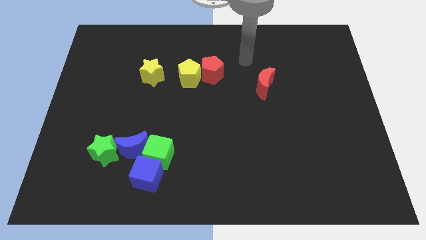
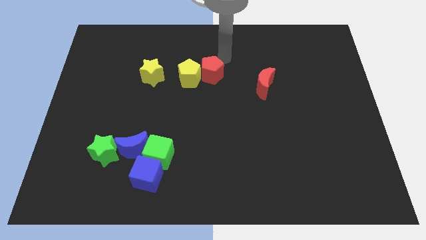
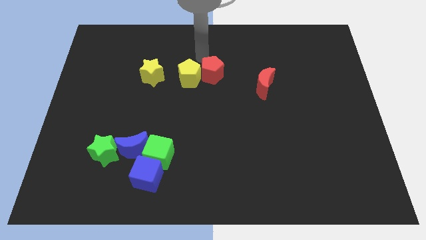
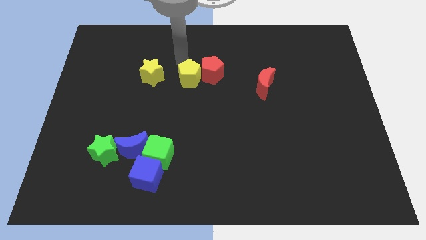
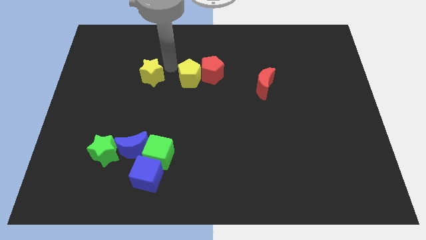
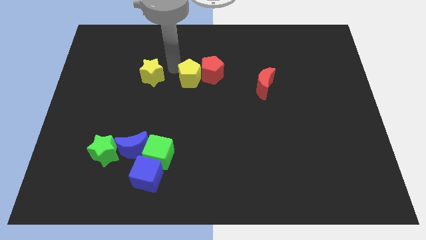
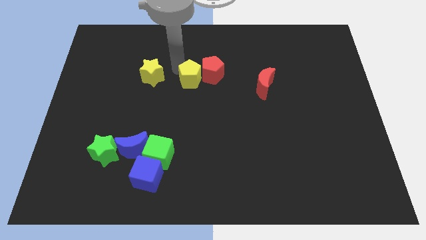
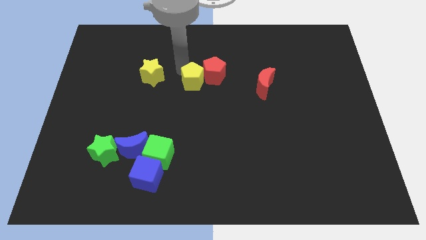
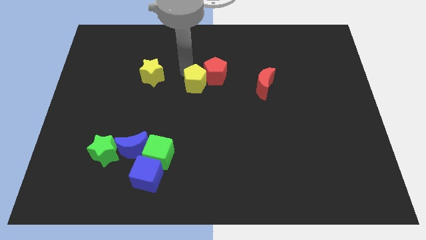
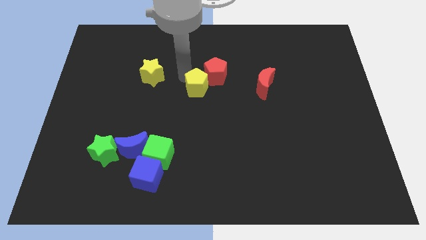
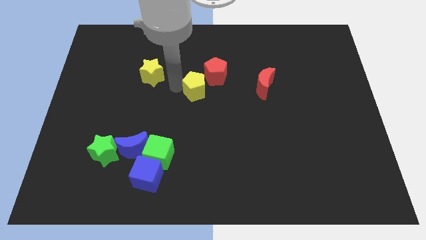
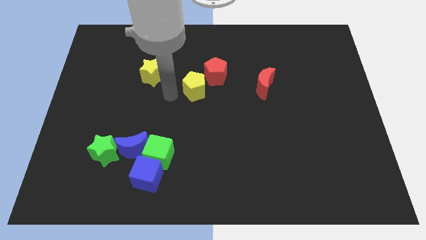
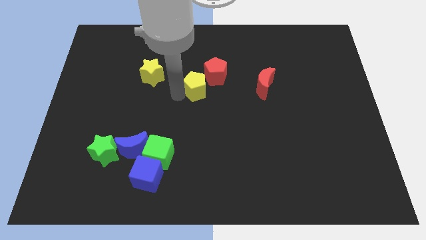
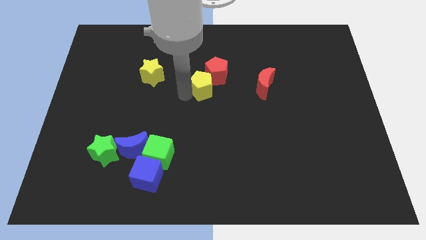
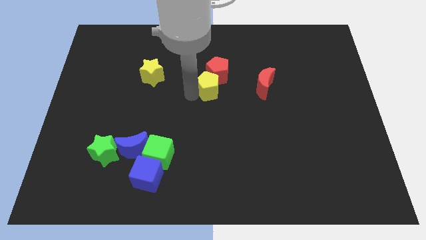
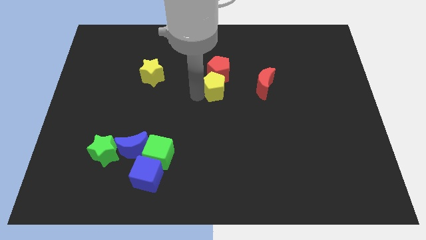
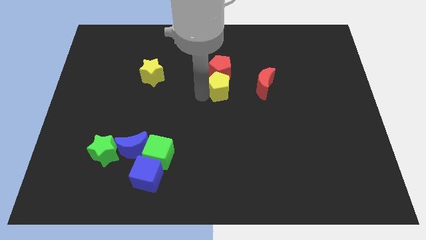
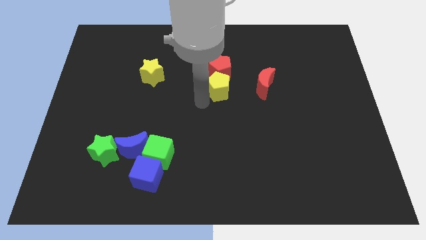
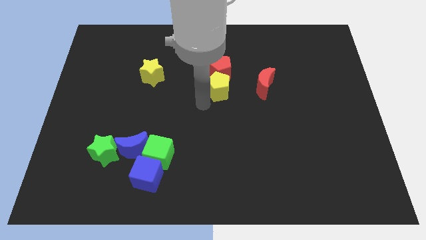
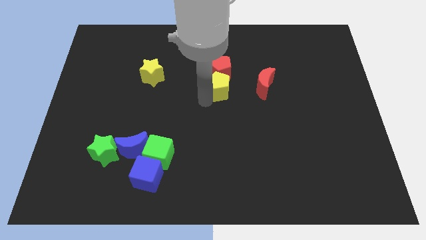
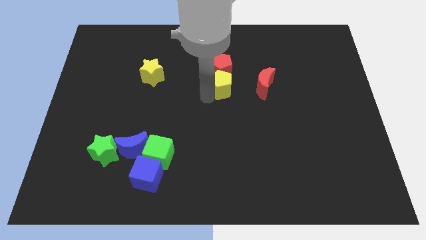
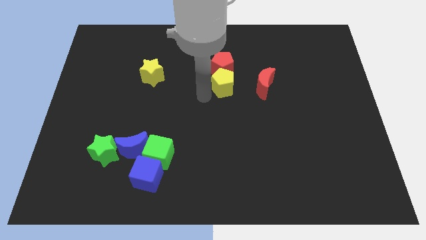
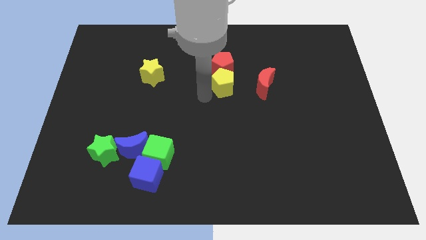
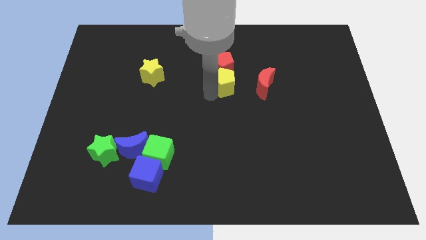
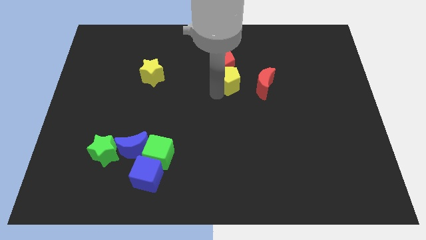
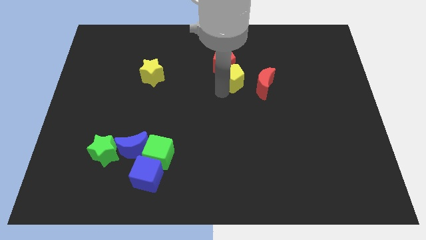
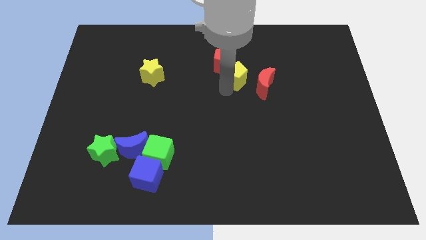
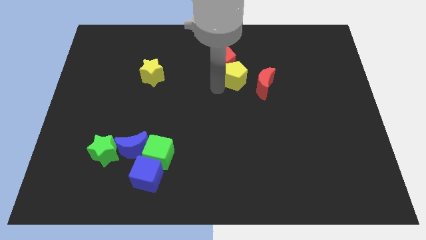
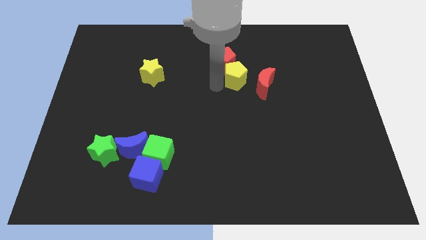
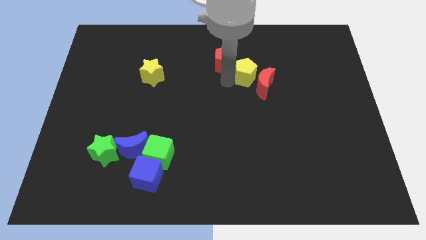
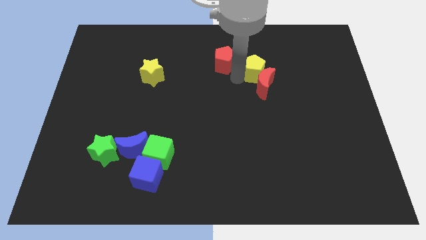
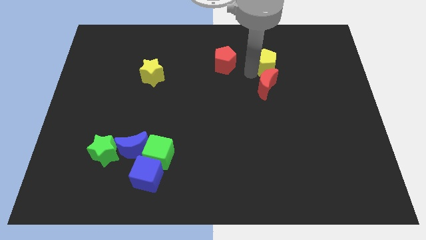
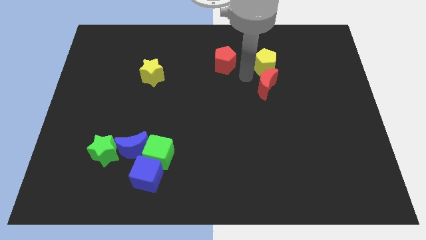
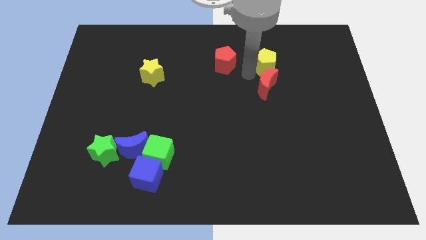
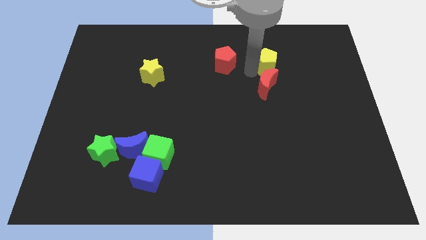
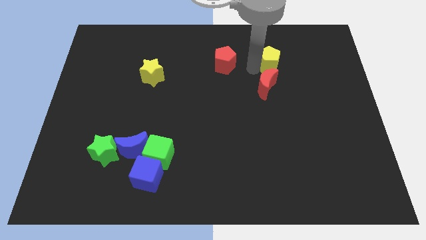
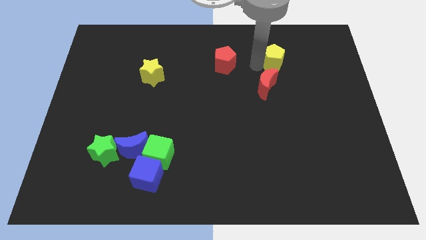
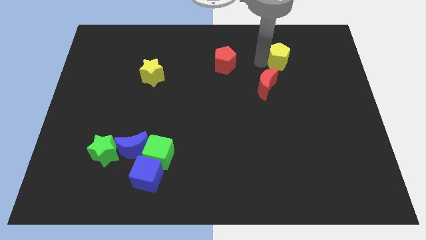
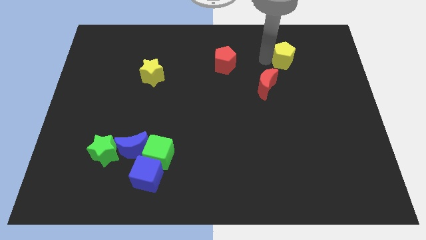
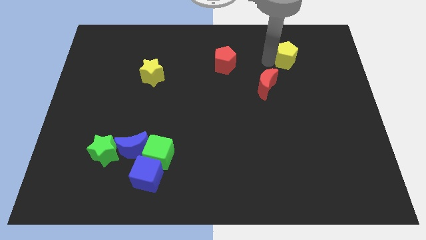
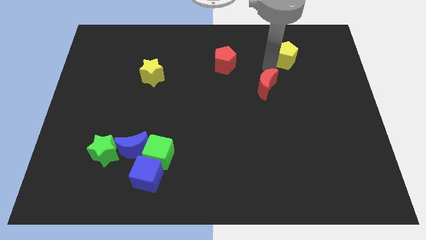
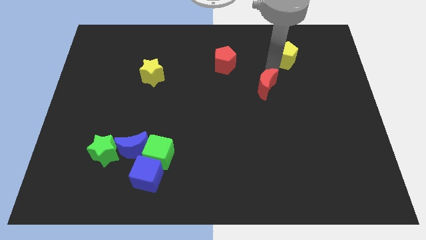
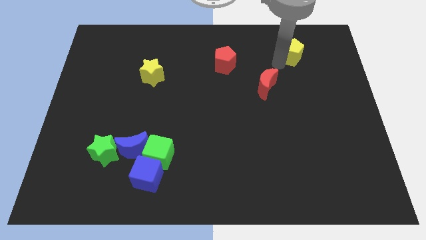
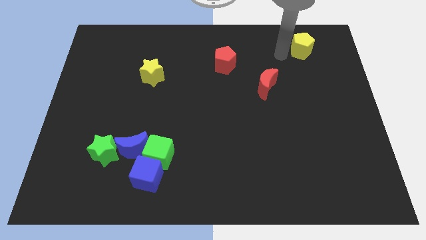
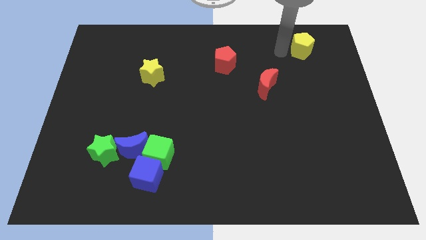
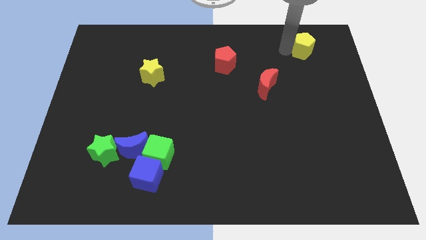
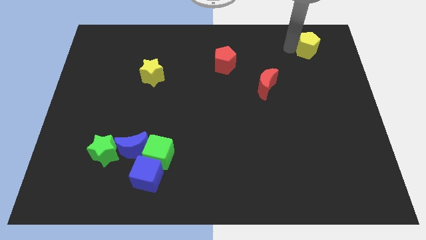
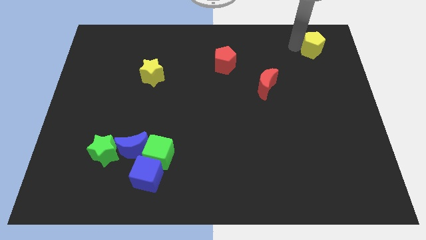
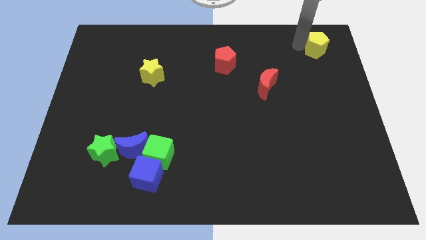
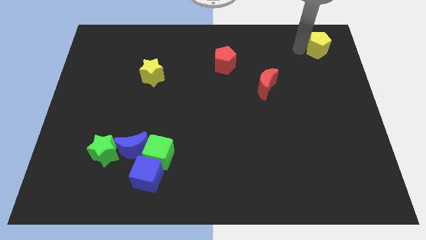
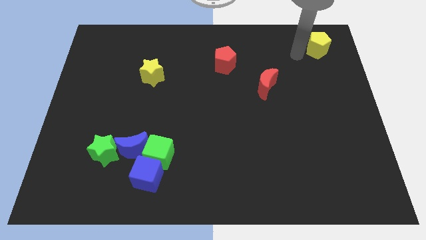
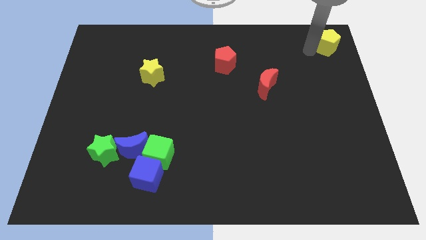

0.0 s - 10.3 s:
put the yellow pentagon to the top right of the board

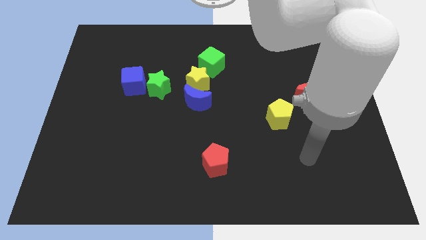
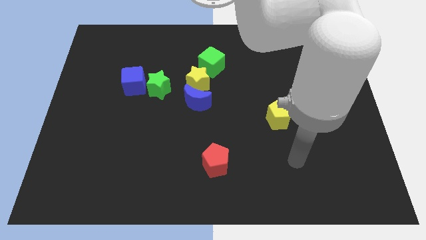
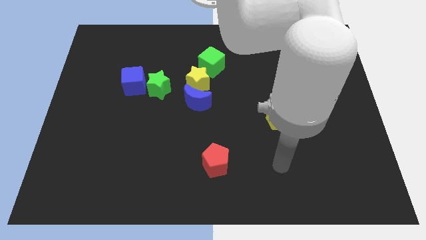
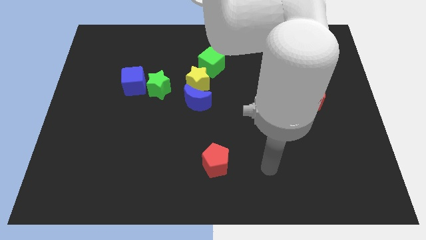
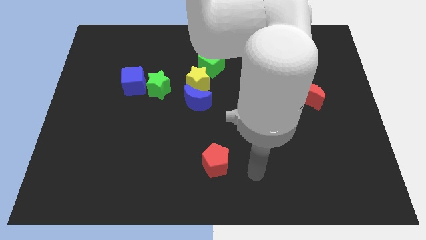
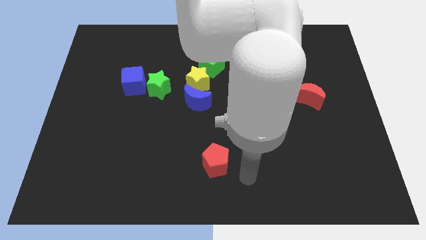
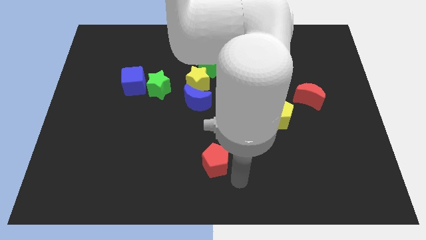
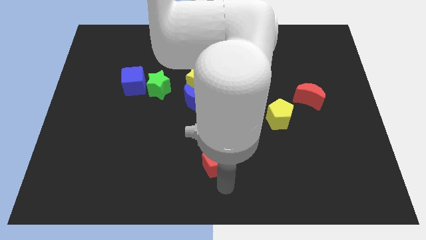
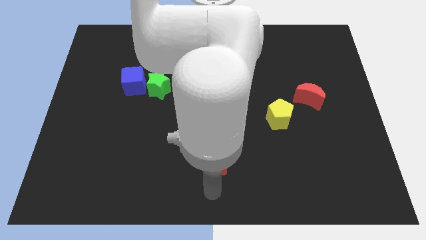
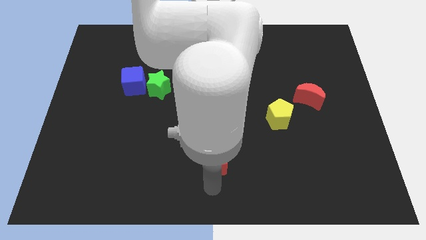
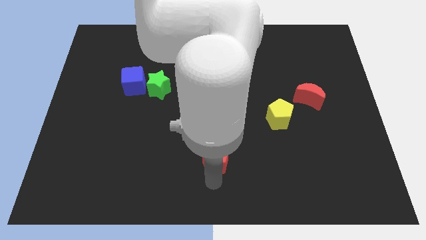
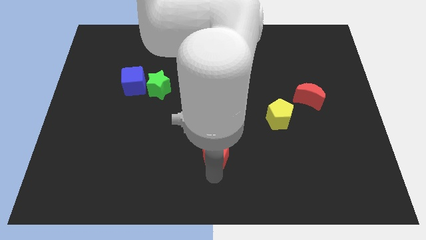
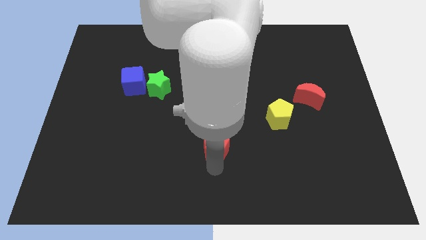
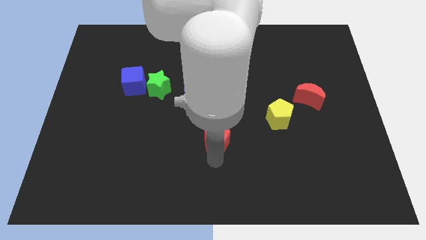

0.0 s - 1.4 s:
move the red pentagon to the center
